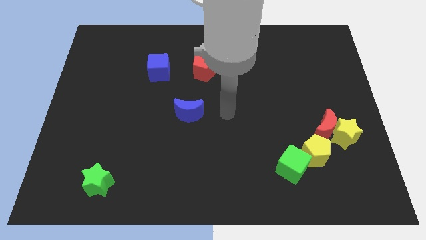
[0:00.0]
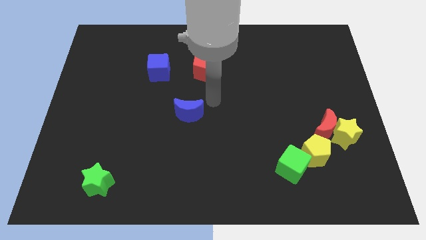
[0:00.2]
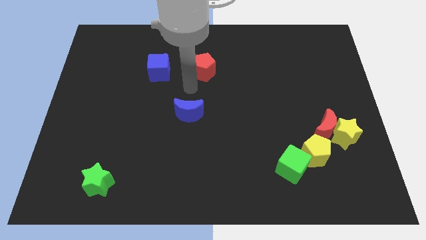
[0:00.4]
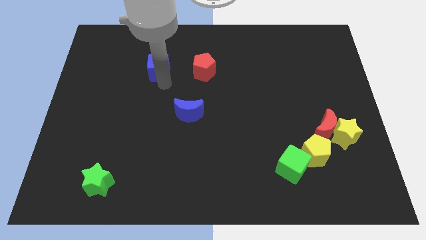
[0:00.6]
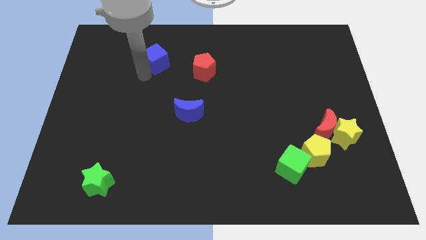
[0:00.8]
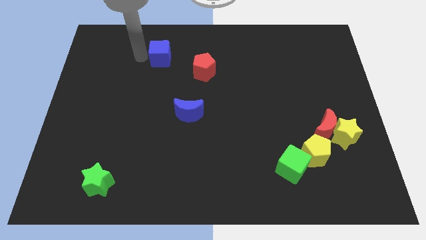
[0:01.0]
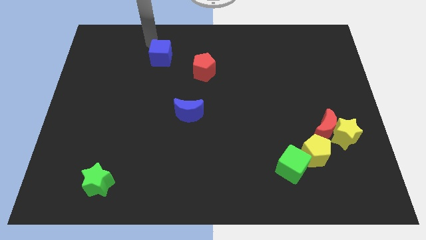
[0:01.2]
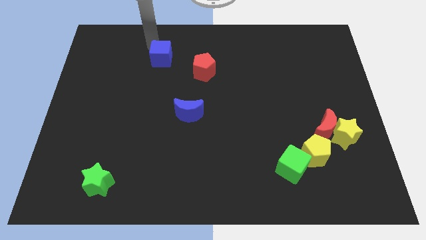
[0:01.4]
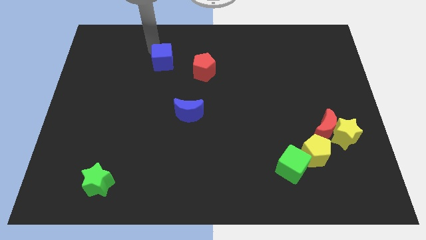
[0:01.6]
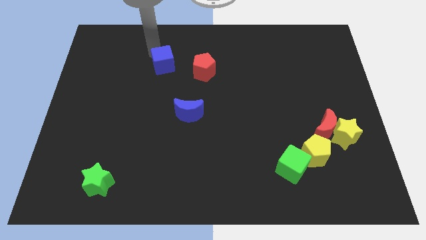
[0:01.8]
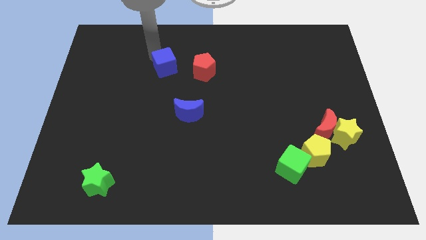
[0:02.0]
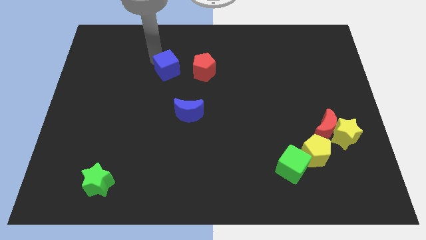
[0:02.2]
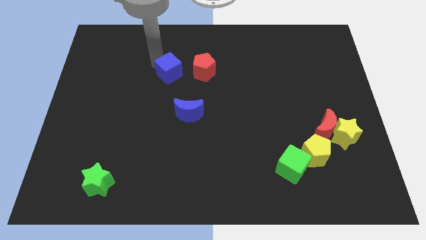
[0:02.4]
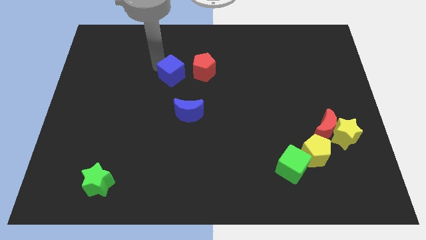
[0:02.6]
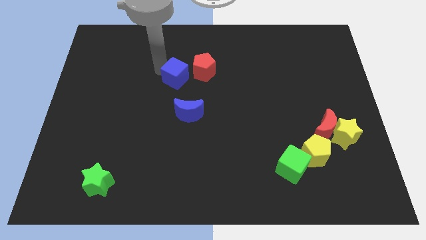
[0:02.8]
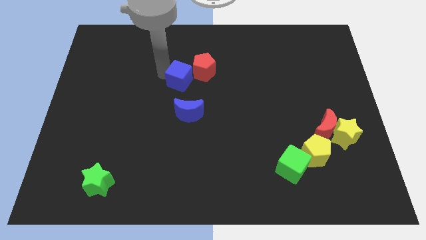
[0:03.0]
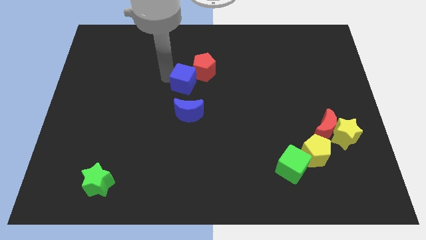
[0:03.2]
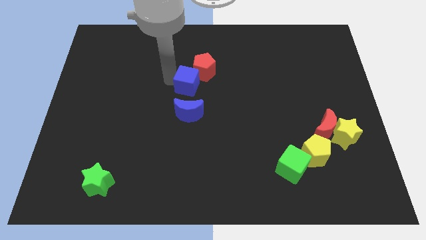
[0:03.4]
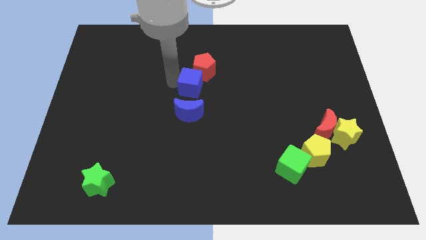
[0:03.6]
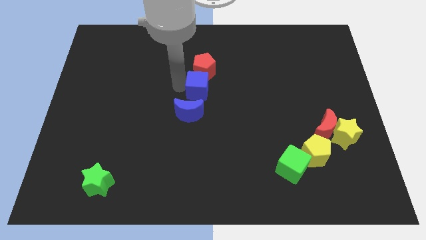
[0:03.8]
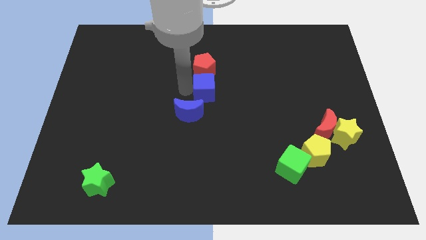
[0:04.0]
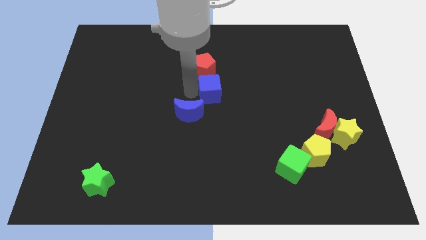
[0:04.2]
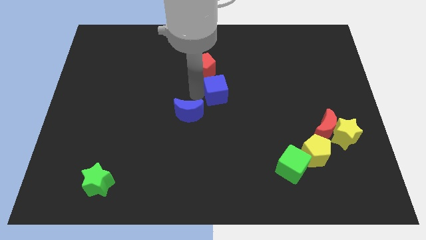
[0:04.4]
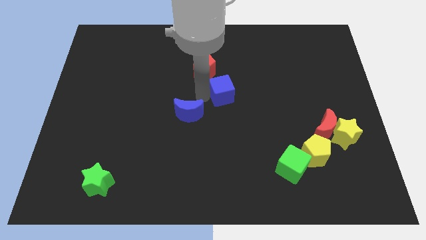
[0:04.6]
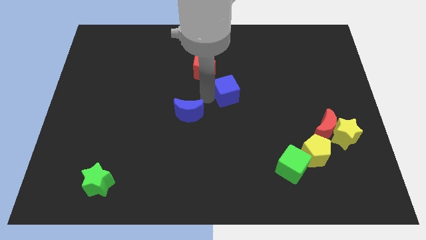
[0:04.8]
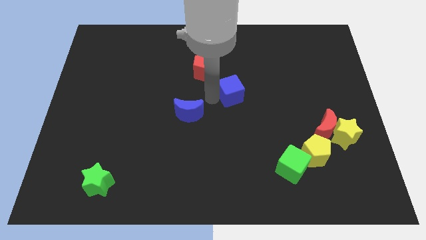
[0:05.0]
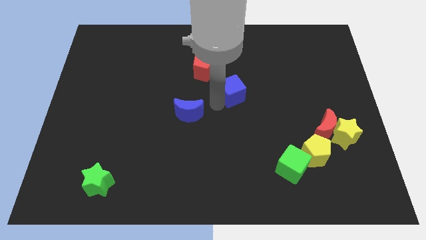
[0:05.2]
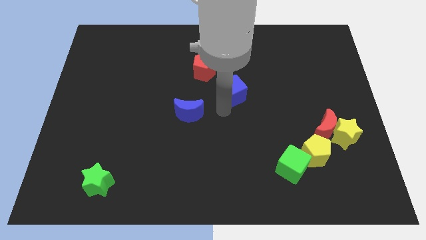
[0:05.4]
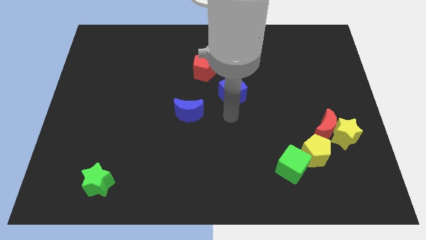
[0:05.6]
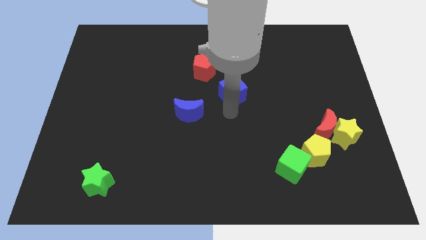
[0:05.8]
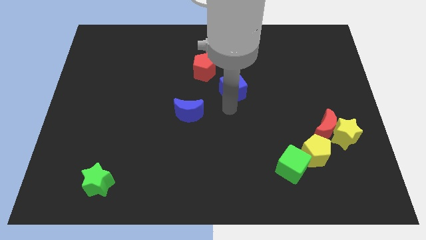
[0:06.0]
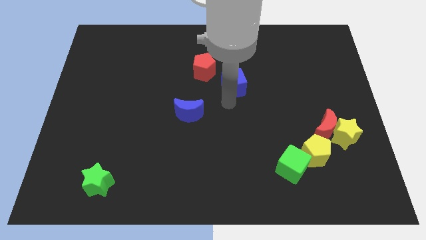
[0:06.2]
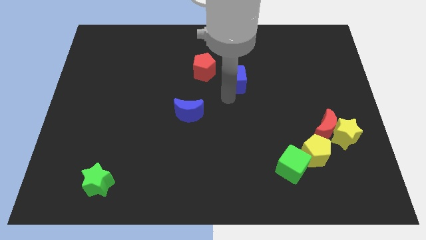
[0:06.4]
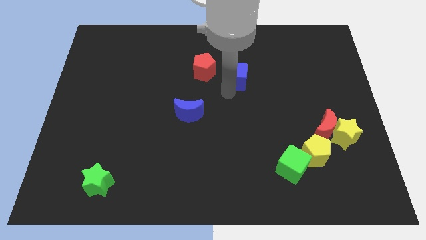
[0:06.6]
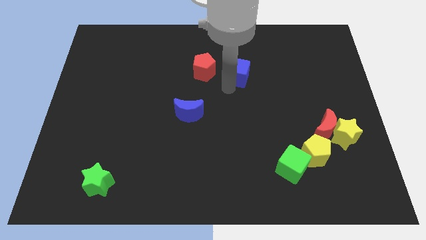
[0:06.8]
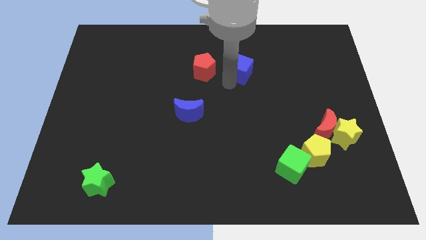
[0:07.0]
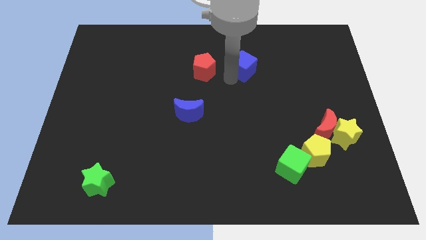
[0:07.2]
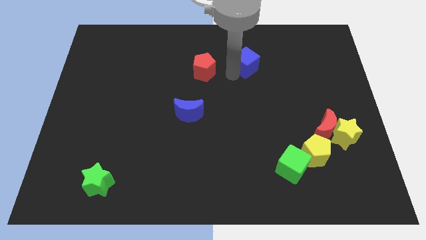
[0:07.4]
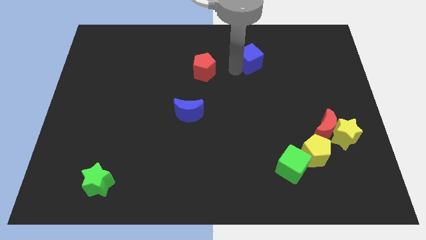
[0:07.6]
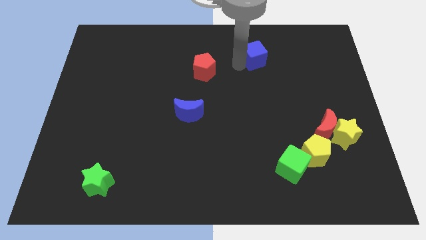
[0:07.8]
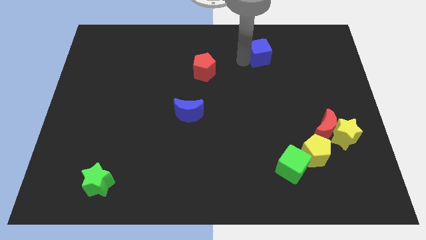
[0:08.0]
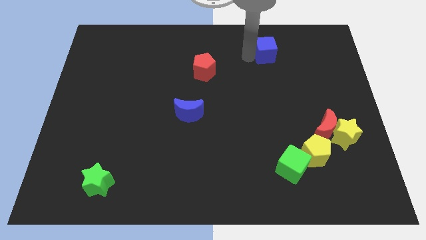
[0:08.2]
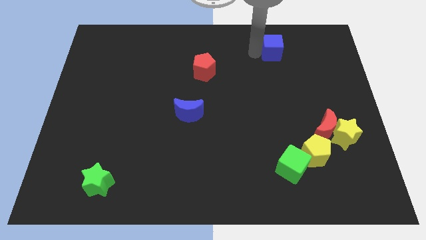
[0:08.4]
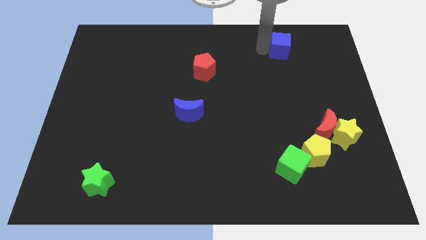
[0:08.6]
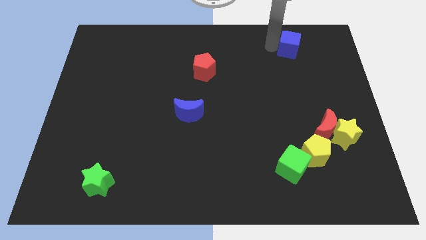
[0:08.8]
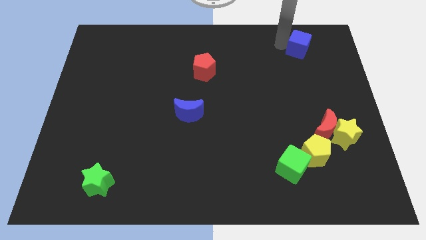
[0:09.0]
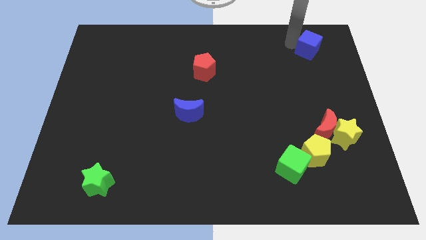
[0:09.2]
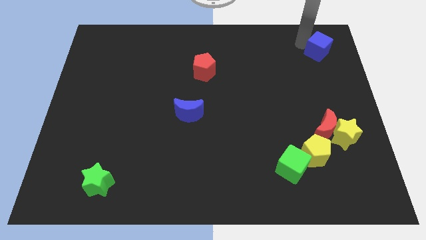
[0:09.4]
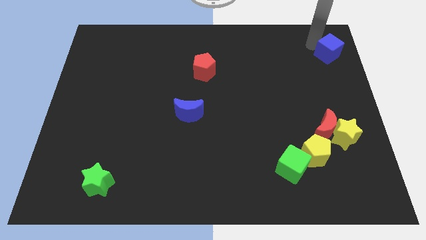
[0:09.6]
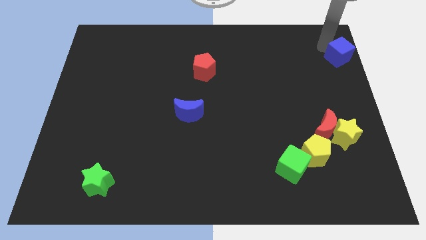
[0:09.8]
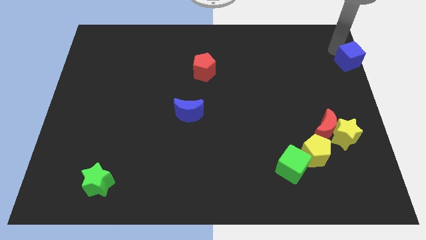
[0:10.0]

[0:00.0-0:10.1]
put the blue cube to the right side of the board
